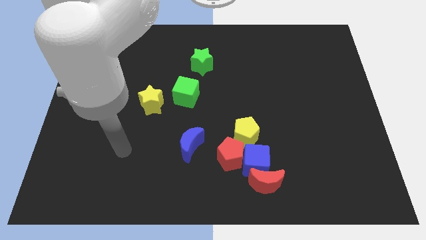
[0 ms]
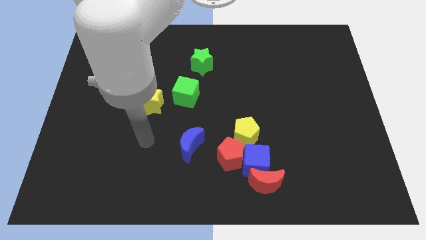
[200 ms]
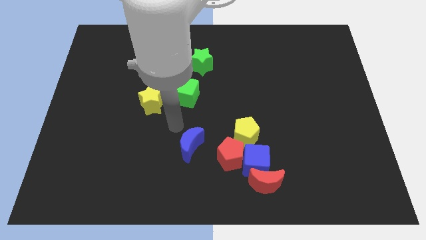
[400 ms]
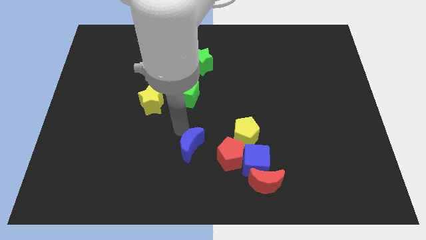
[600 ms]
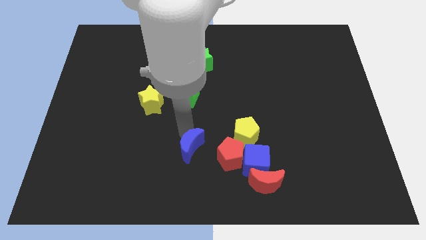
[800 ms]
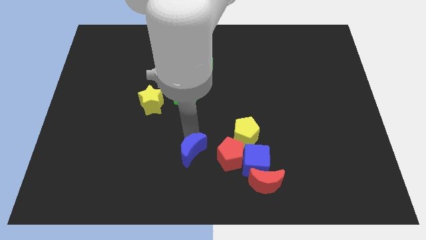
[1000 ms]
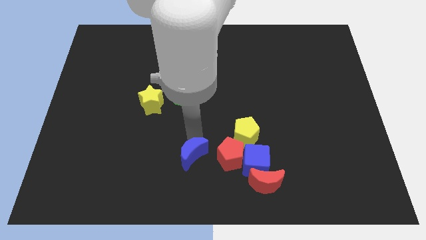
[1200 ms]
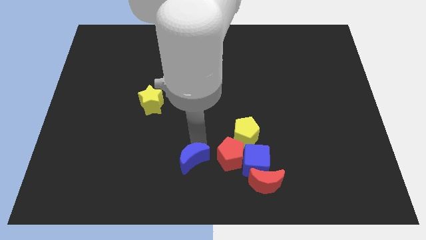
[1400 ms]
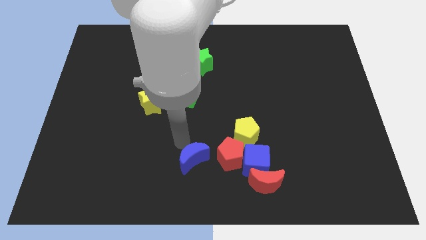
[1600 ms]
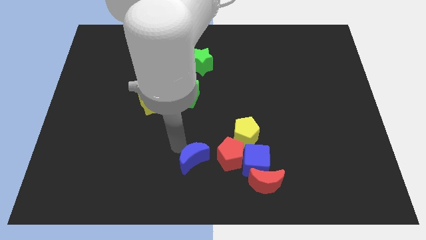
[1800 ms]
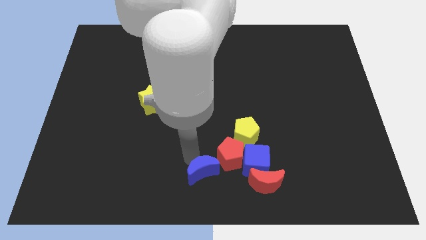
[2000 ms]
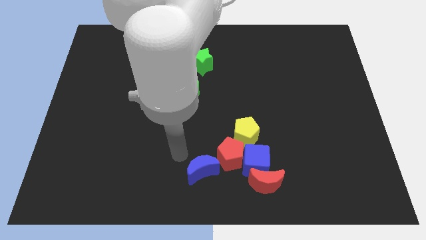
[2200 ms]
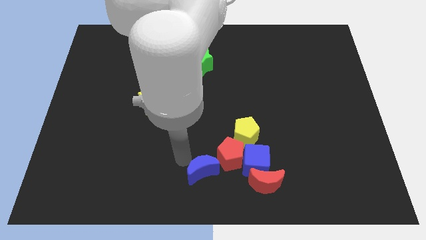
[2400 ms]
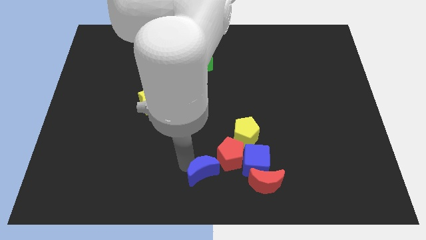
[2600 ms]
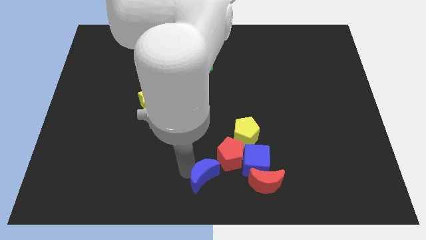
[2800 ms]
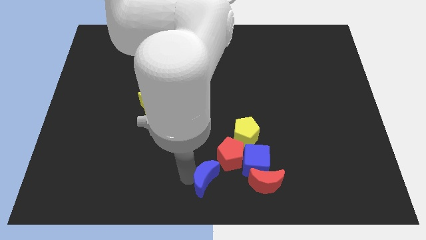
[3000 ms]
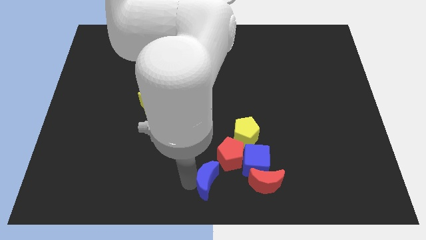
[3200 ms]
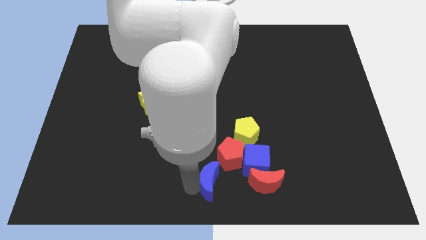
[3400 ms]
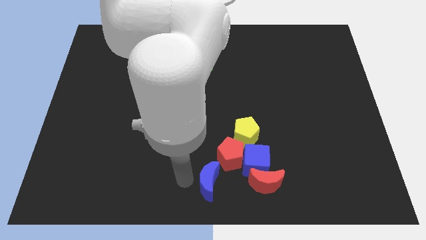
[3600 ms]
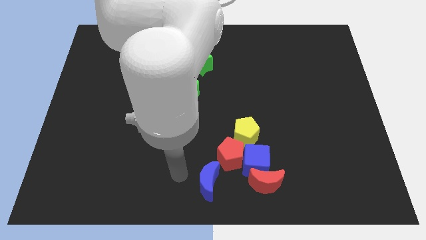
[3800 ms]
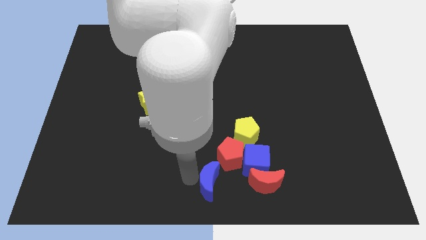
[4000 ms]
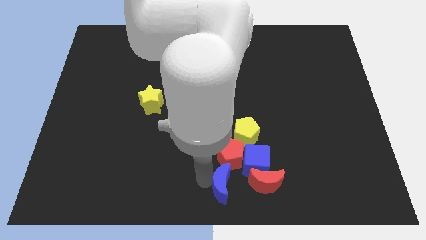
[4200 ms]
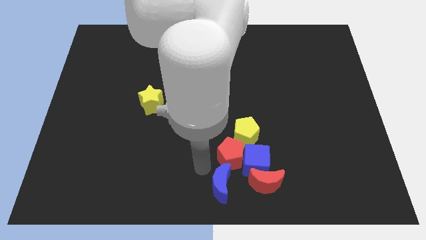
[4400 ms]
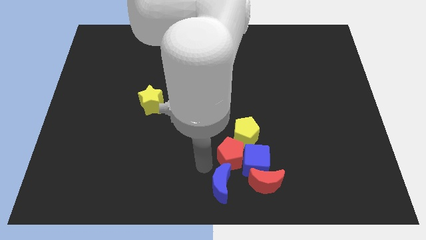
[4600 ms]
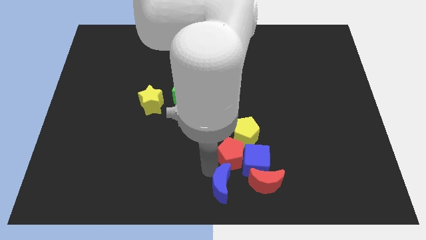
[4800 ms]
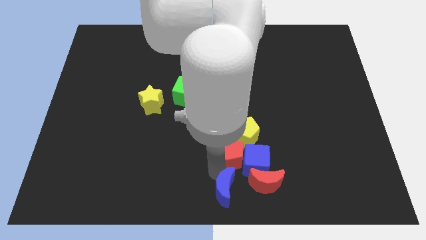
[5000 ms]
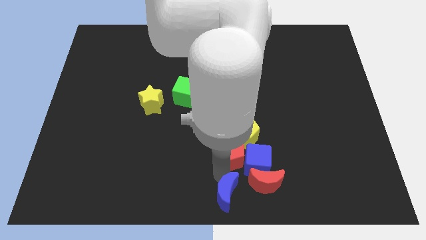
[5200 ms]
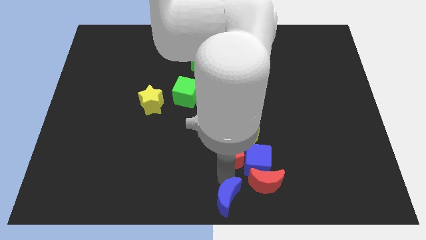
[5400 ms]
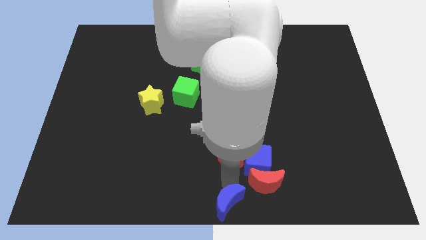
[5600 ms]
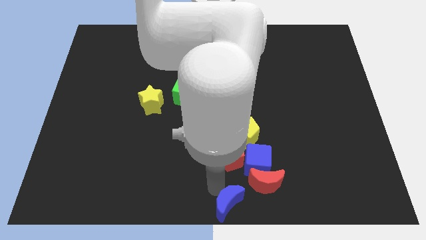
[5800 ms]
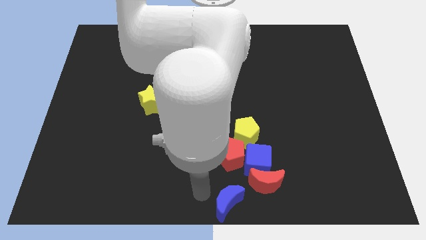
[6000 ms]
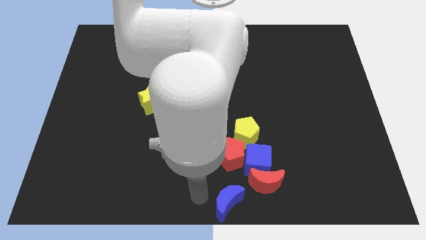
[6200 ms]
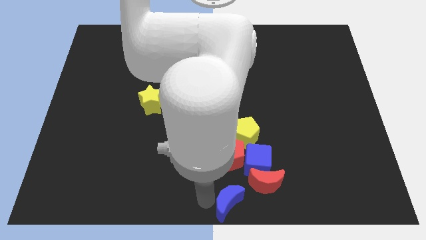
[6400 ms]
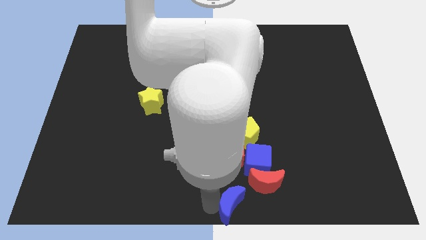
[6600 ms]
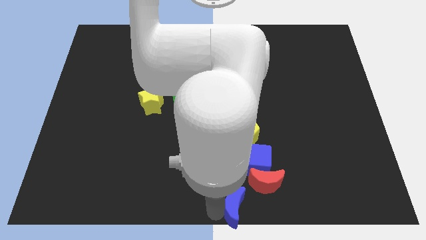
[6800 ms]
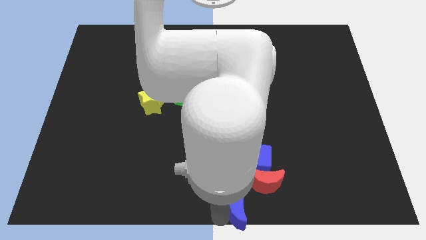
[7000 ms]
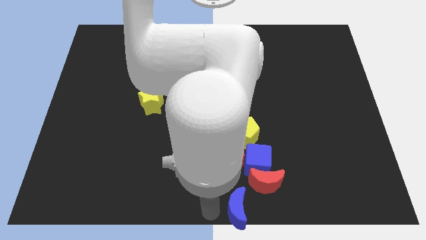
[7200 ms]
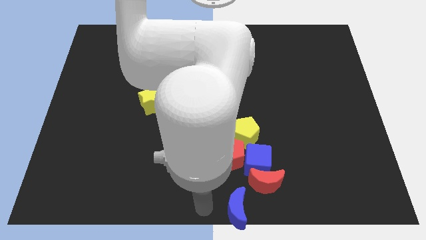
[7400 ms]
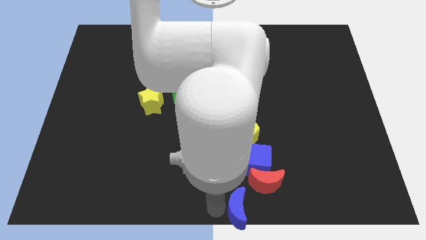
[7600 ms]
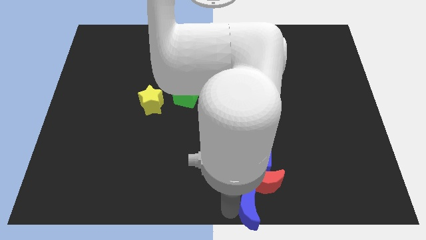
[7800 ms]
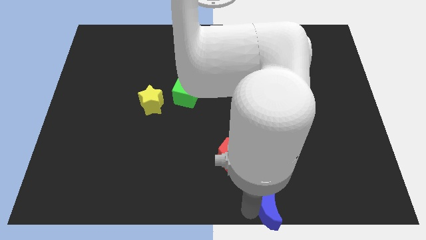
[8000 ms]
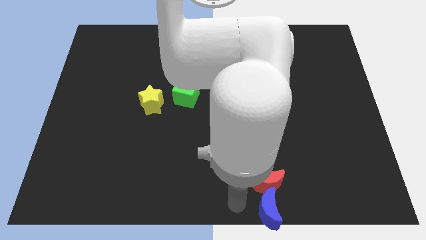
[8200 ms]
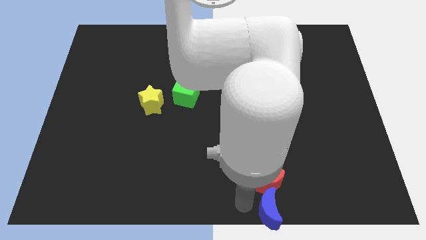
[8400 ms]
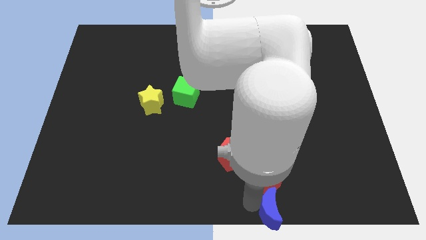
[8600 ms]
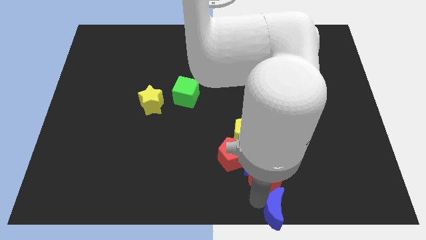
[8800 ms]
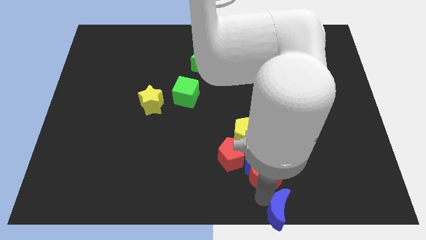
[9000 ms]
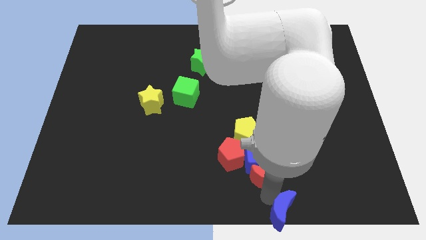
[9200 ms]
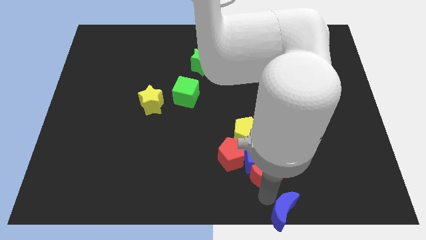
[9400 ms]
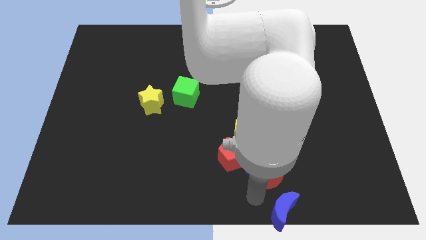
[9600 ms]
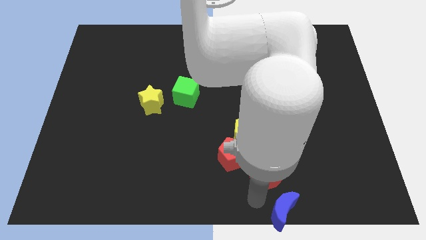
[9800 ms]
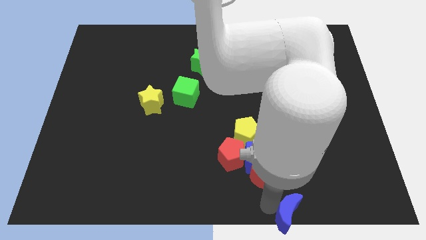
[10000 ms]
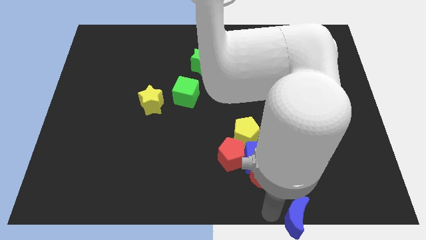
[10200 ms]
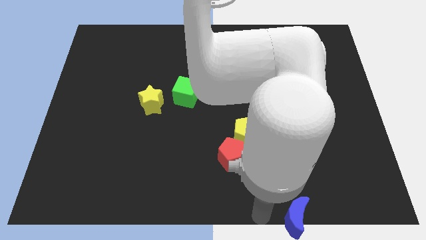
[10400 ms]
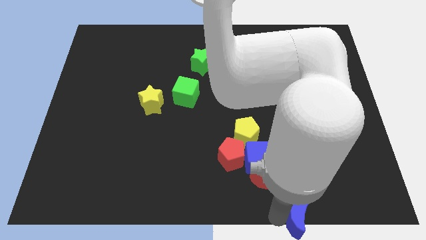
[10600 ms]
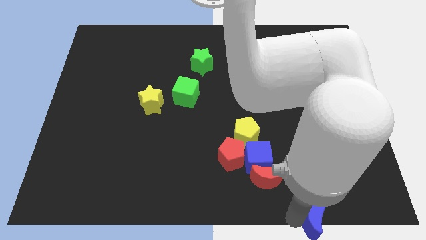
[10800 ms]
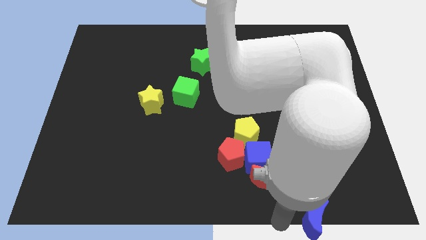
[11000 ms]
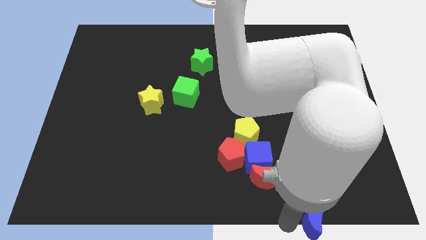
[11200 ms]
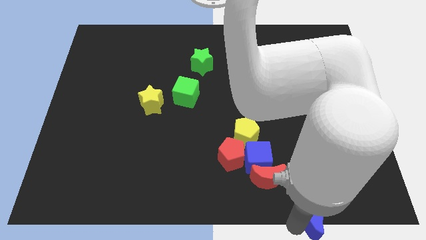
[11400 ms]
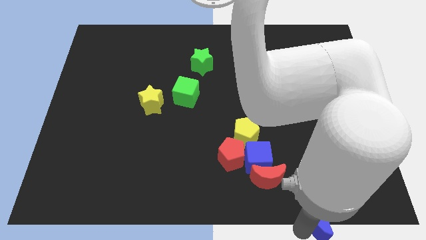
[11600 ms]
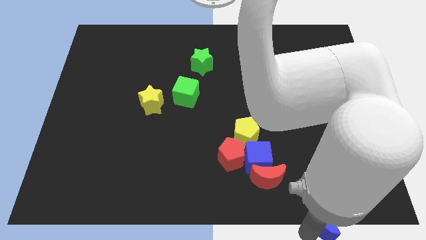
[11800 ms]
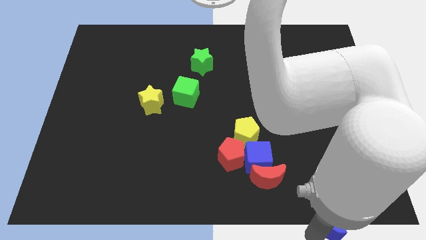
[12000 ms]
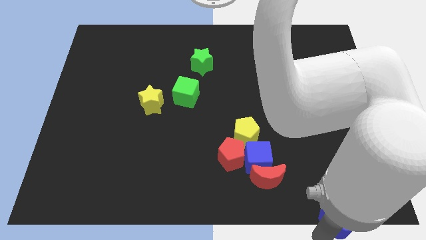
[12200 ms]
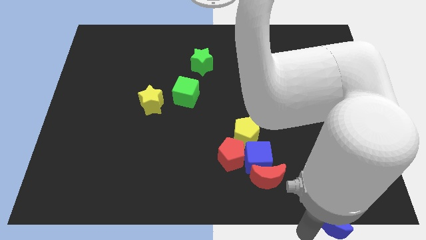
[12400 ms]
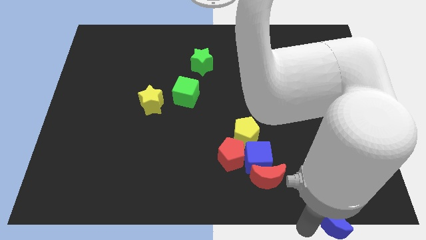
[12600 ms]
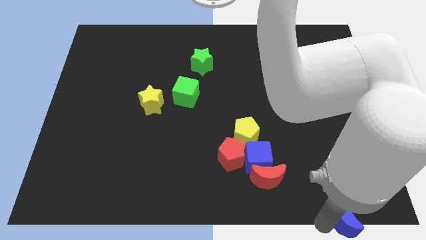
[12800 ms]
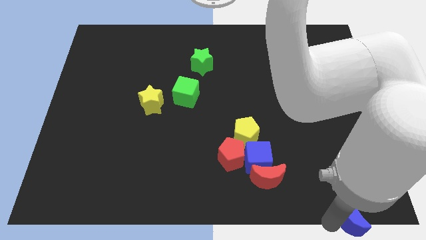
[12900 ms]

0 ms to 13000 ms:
push the blue moon to the bottom right of the board

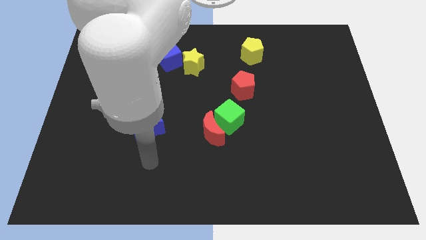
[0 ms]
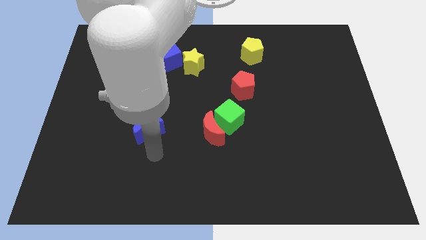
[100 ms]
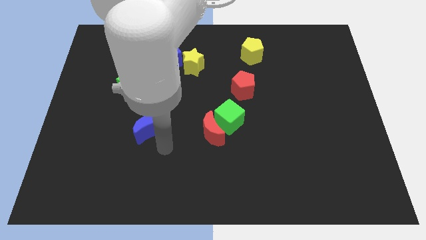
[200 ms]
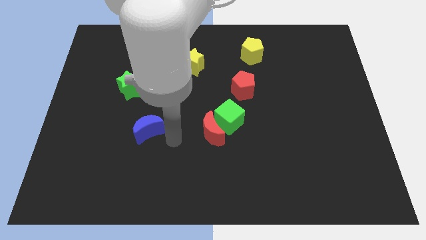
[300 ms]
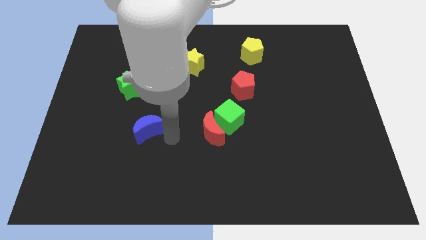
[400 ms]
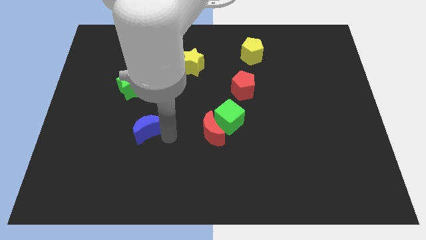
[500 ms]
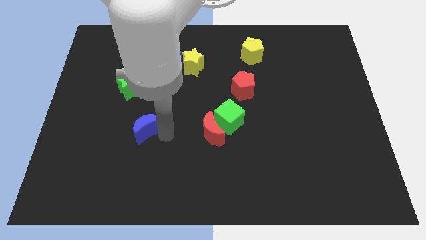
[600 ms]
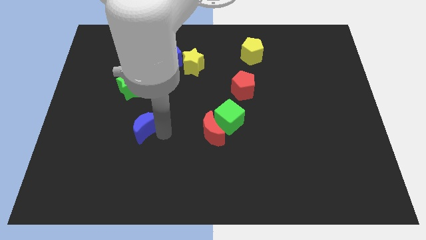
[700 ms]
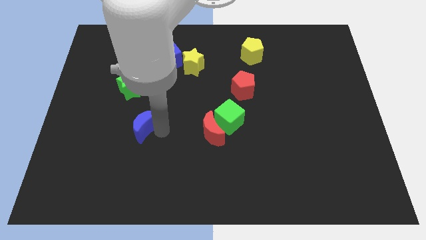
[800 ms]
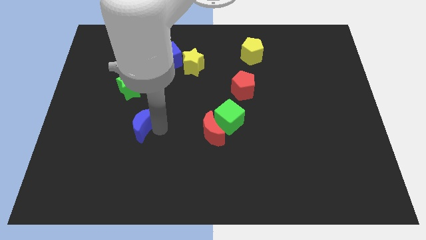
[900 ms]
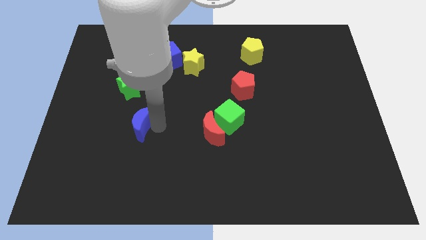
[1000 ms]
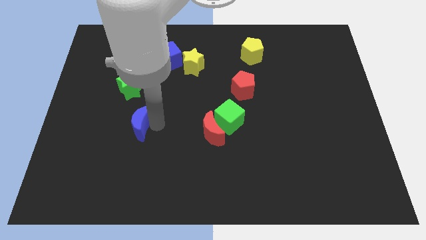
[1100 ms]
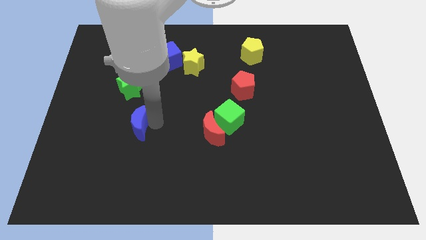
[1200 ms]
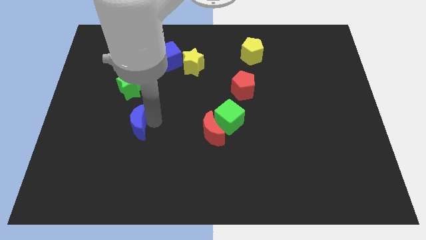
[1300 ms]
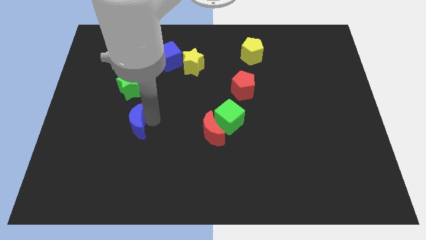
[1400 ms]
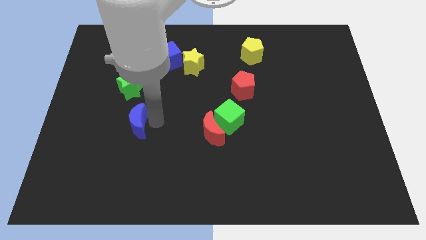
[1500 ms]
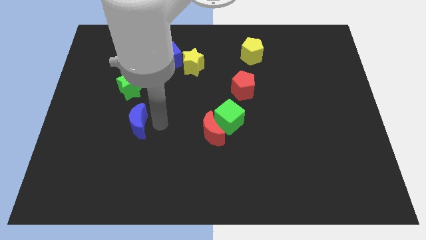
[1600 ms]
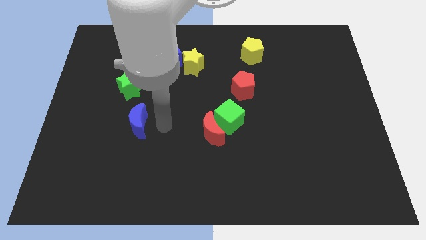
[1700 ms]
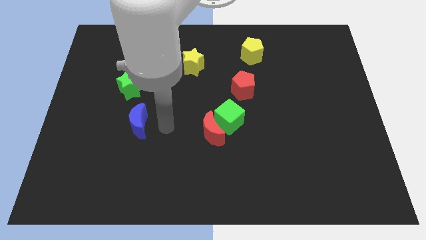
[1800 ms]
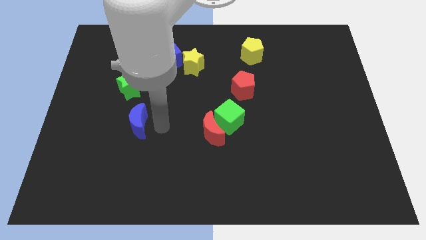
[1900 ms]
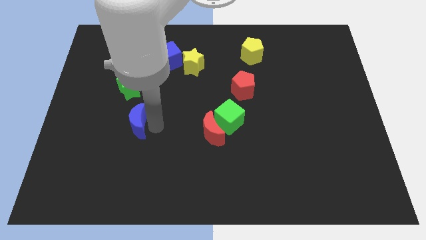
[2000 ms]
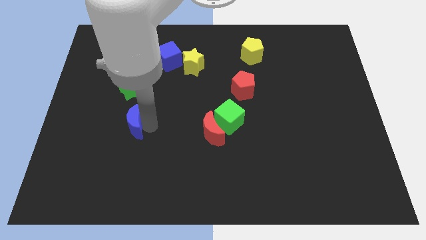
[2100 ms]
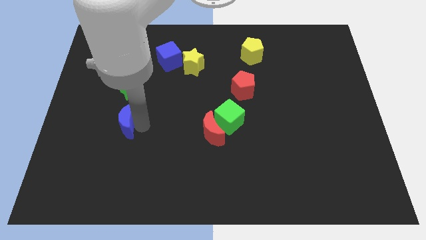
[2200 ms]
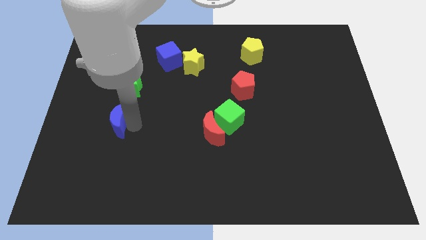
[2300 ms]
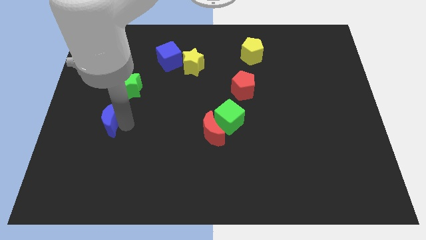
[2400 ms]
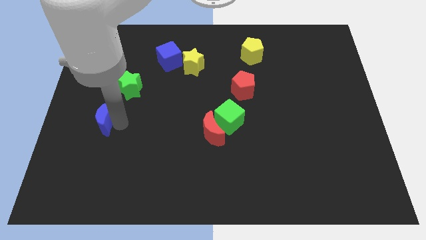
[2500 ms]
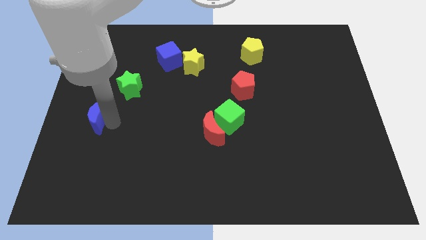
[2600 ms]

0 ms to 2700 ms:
put the blue moon to the left side of the board
